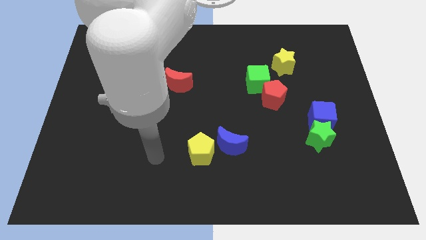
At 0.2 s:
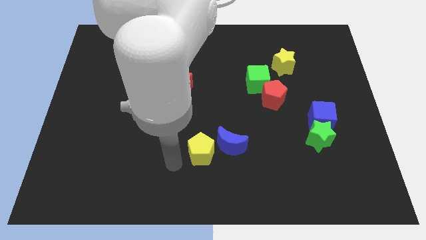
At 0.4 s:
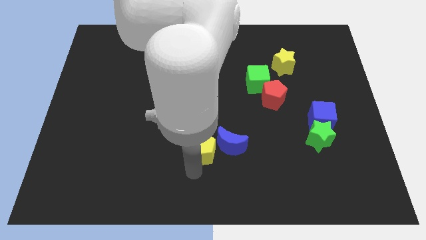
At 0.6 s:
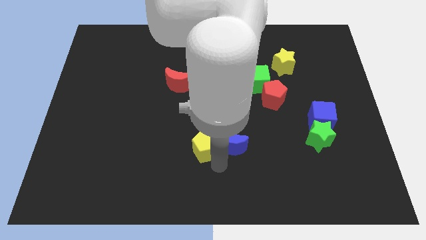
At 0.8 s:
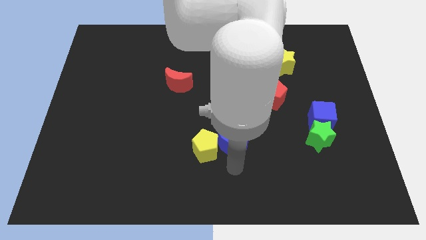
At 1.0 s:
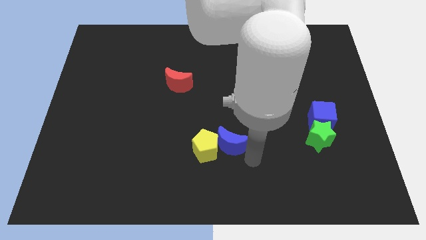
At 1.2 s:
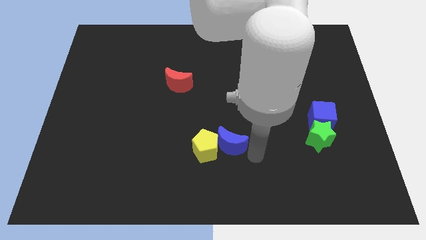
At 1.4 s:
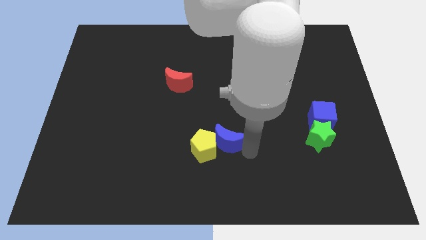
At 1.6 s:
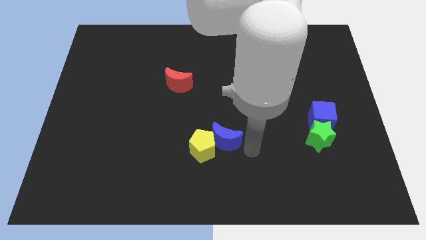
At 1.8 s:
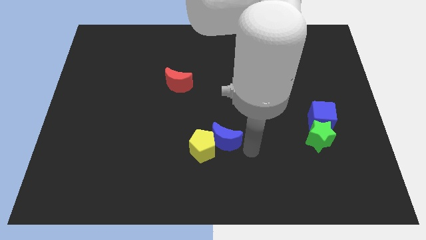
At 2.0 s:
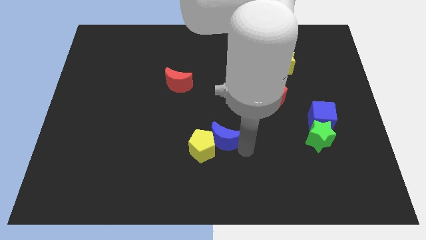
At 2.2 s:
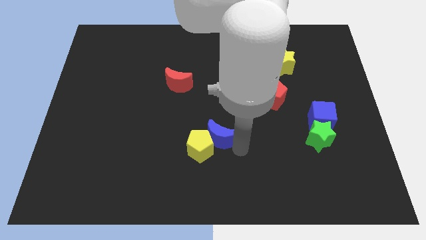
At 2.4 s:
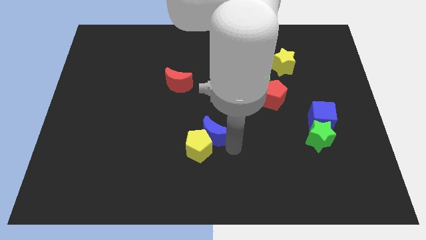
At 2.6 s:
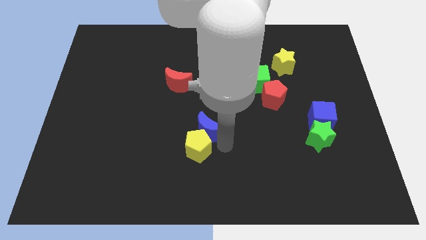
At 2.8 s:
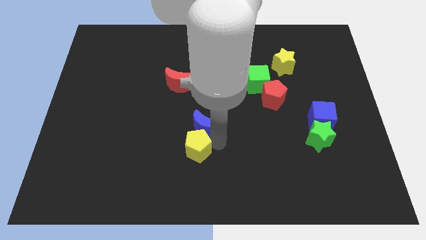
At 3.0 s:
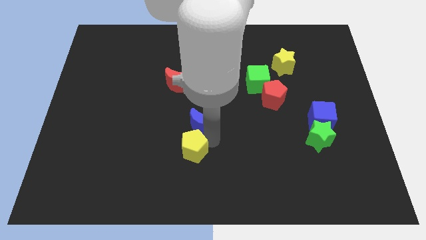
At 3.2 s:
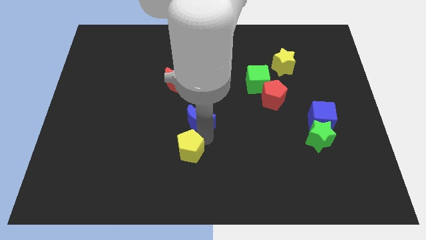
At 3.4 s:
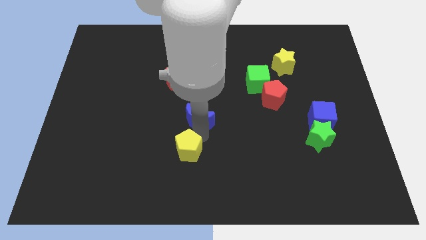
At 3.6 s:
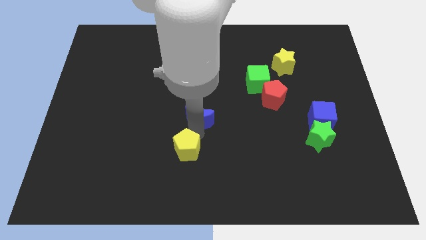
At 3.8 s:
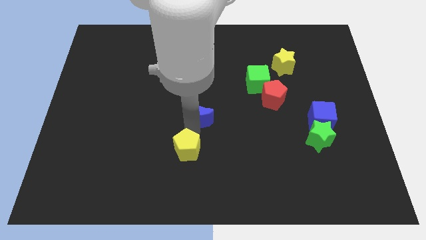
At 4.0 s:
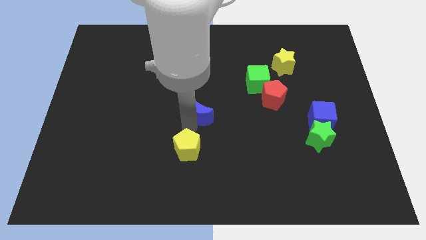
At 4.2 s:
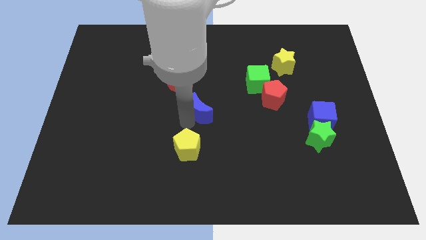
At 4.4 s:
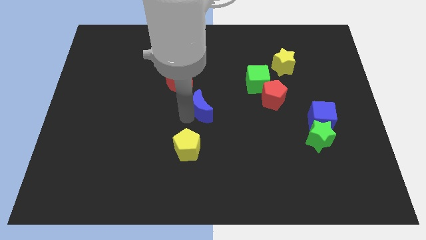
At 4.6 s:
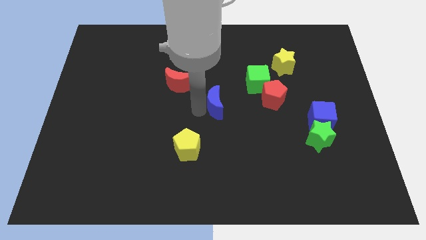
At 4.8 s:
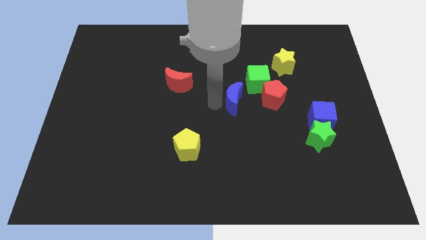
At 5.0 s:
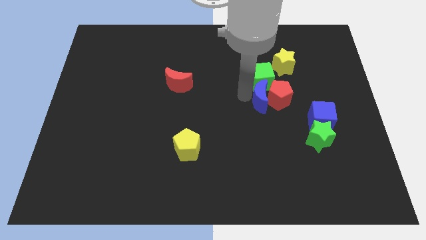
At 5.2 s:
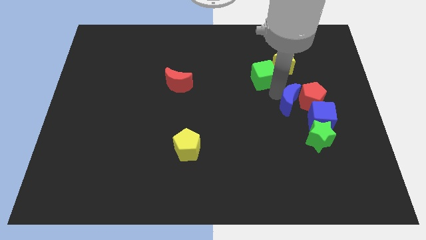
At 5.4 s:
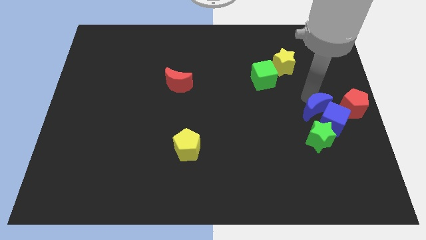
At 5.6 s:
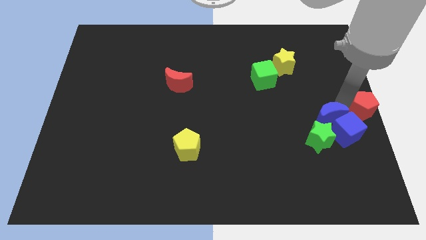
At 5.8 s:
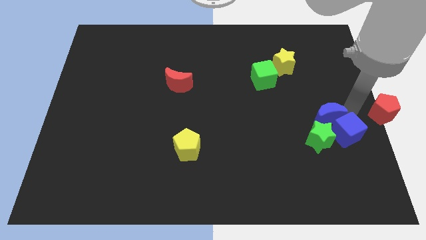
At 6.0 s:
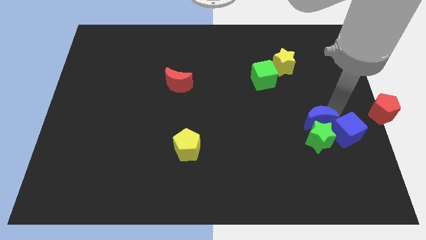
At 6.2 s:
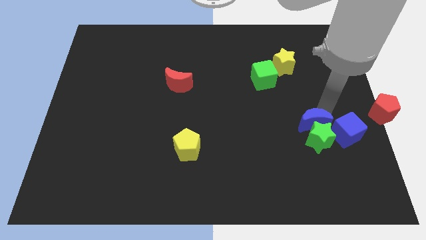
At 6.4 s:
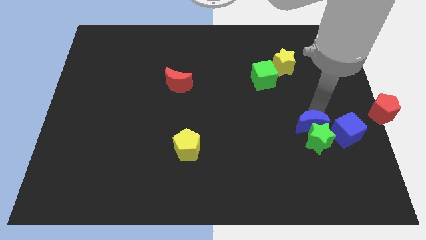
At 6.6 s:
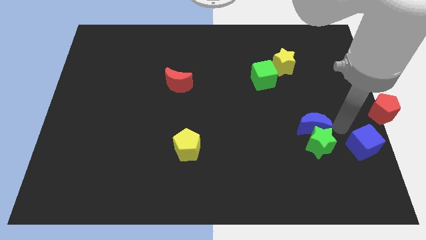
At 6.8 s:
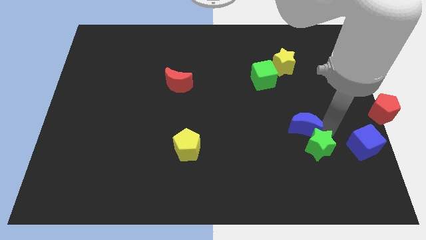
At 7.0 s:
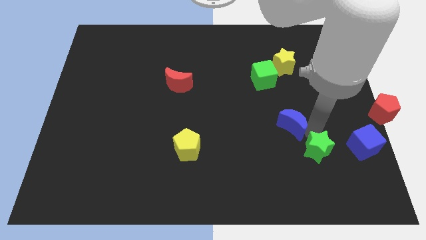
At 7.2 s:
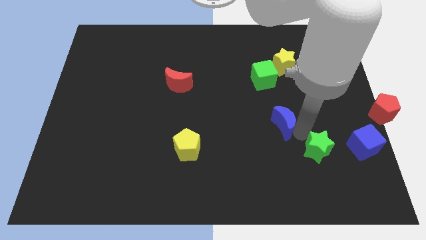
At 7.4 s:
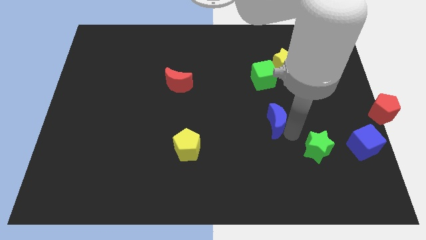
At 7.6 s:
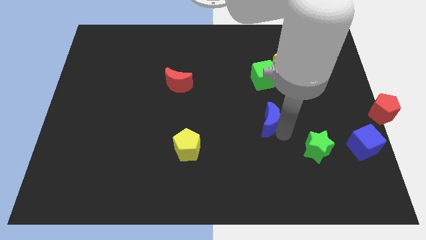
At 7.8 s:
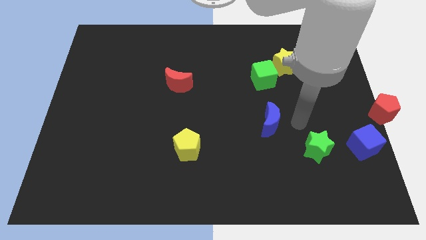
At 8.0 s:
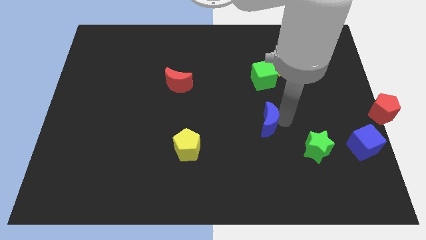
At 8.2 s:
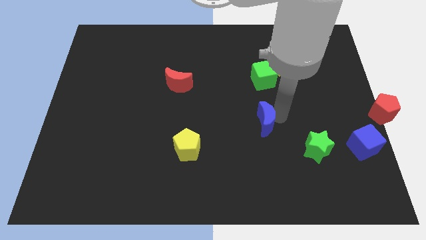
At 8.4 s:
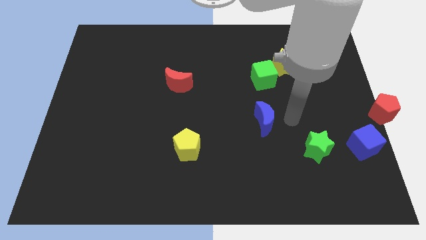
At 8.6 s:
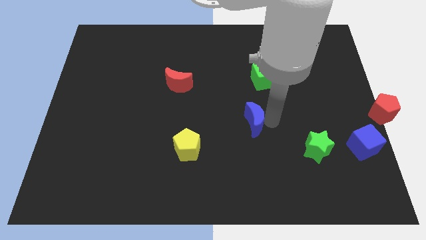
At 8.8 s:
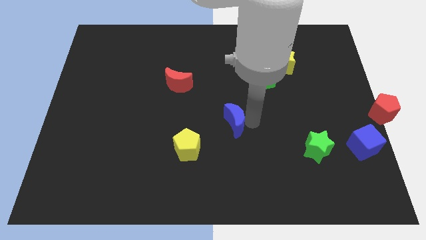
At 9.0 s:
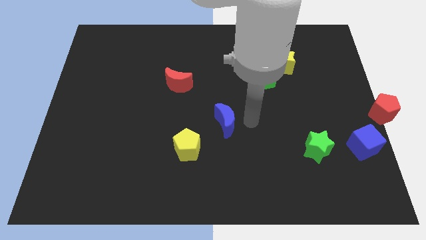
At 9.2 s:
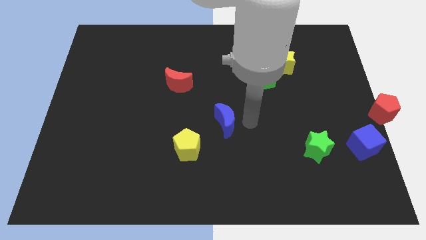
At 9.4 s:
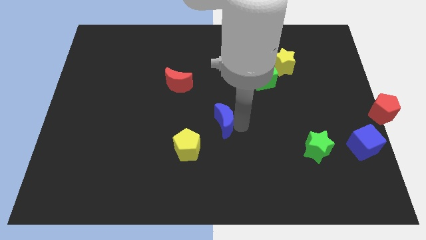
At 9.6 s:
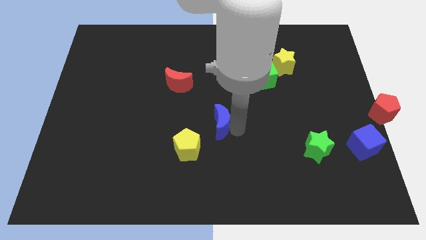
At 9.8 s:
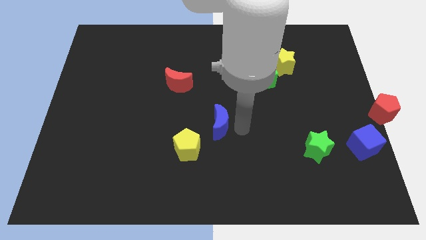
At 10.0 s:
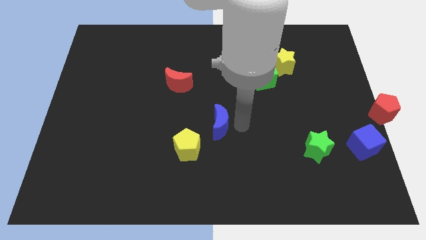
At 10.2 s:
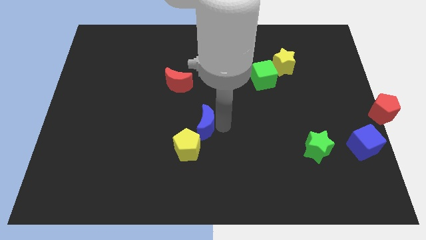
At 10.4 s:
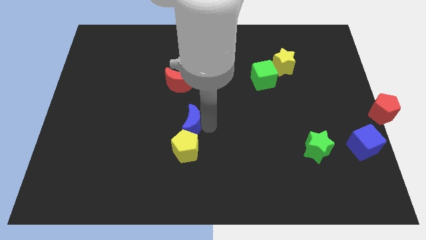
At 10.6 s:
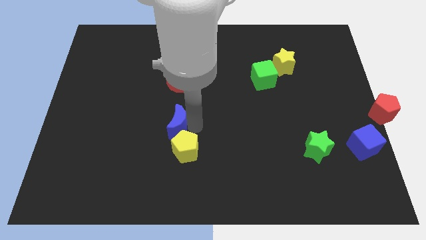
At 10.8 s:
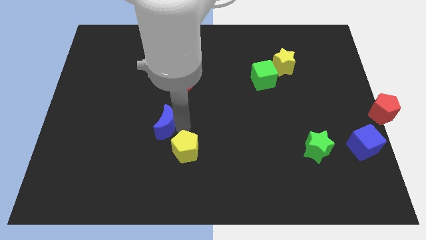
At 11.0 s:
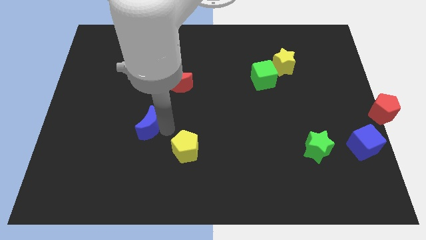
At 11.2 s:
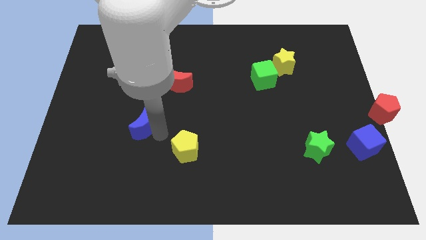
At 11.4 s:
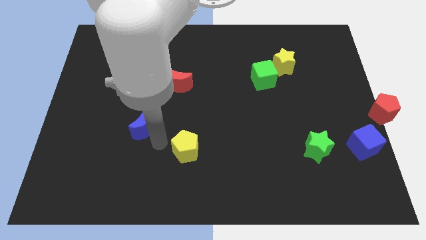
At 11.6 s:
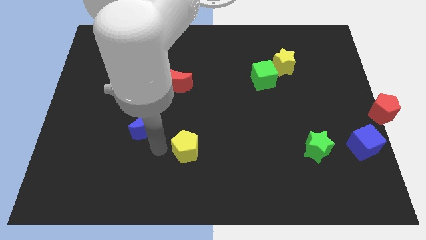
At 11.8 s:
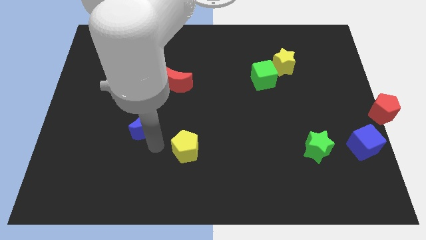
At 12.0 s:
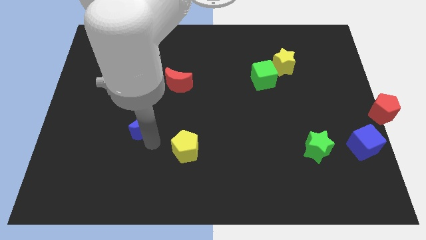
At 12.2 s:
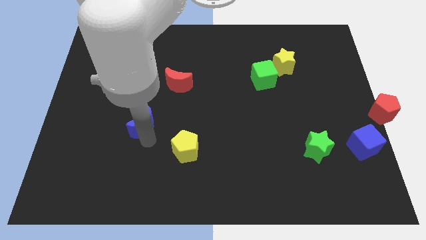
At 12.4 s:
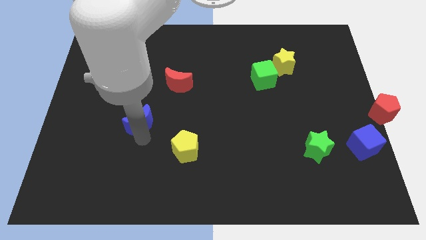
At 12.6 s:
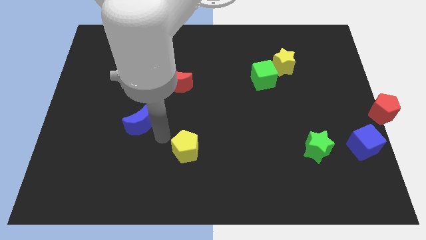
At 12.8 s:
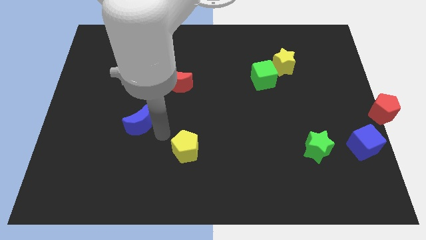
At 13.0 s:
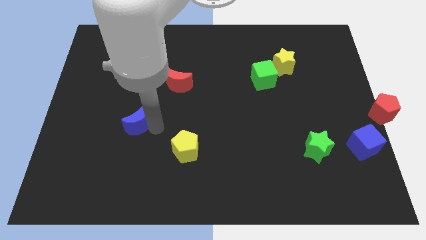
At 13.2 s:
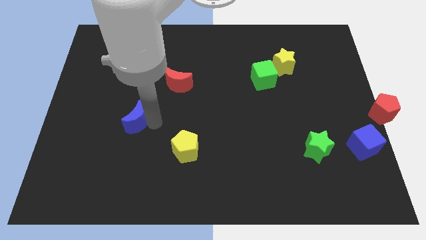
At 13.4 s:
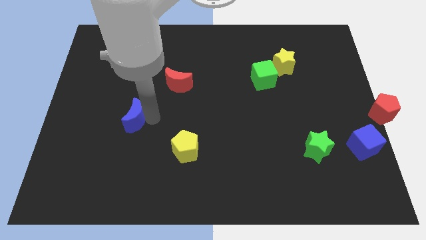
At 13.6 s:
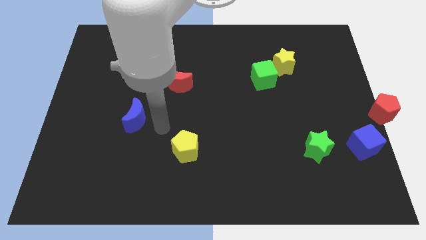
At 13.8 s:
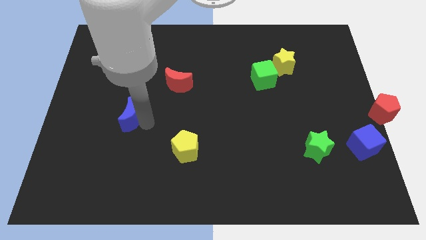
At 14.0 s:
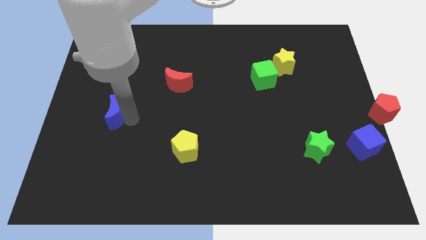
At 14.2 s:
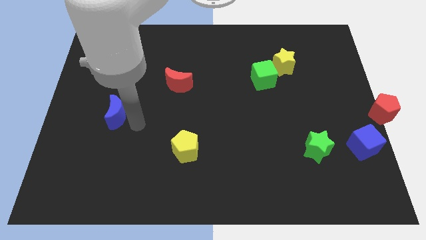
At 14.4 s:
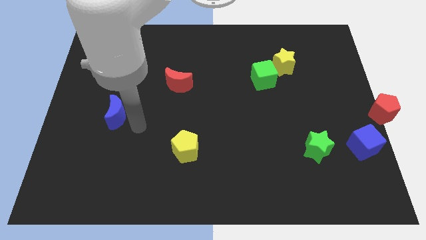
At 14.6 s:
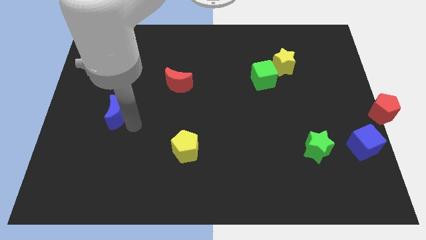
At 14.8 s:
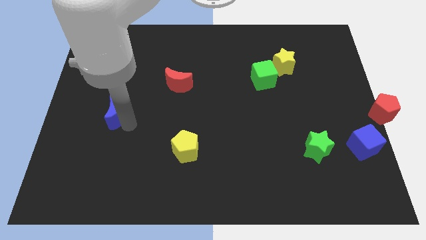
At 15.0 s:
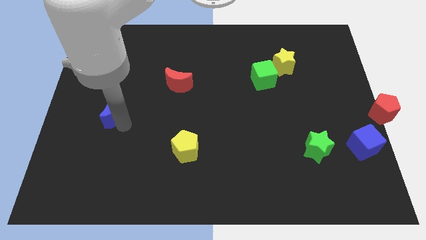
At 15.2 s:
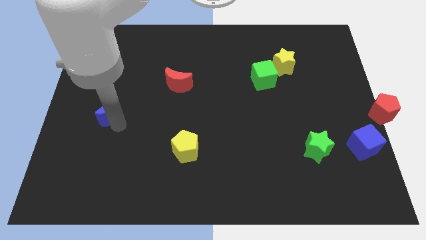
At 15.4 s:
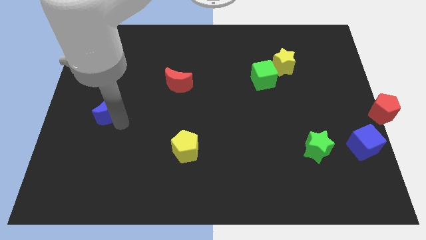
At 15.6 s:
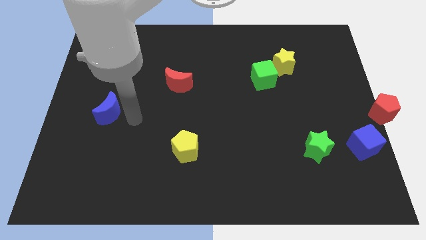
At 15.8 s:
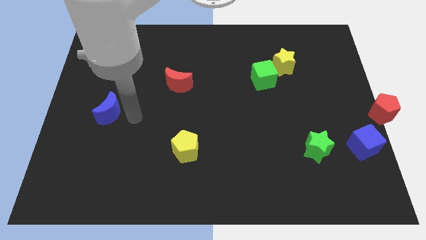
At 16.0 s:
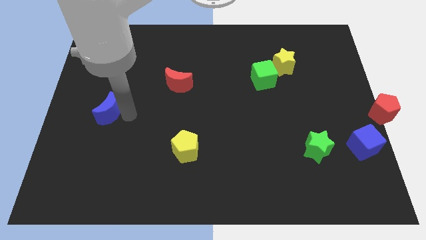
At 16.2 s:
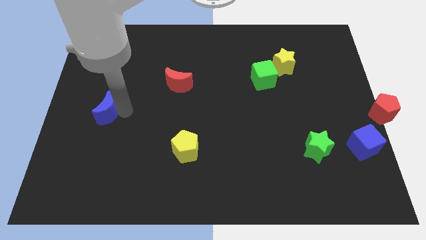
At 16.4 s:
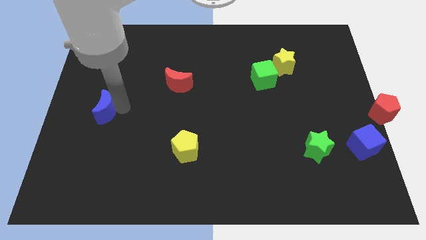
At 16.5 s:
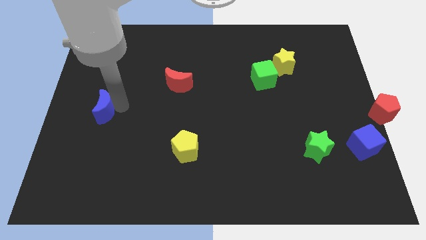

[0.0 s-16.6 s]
move the blue moon to the left side of the board
